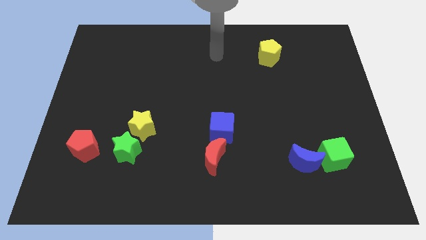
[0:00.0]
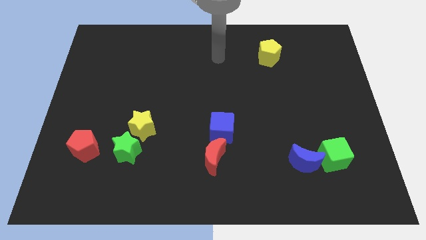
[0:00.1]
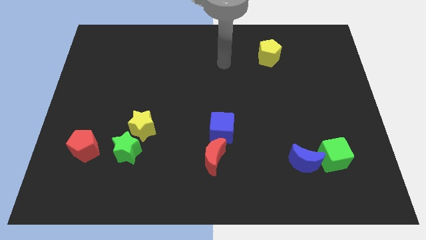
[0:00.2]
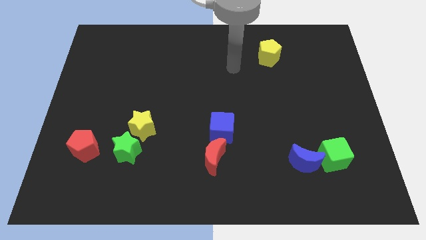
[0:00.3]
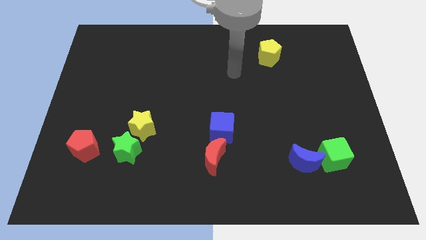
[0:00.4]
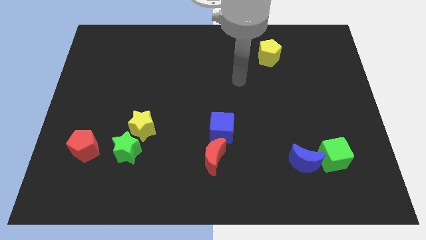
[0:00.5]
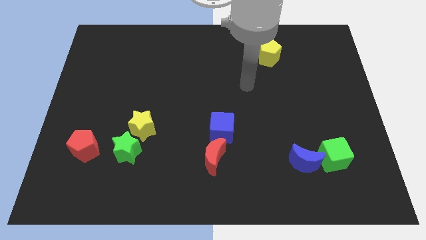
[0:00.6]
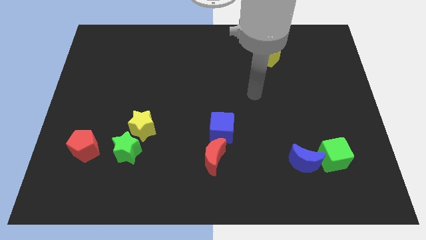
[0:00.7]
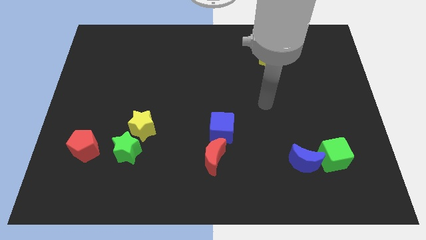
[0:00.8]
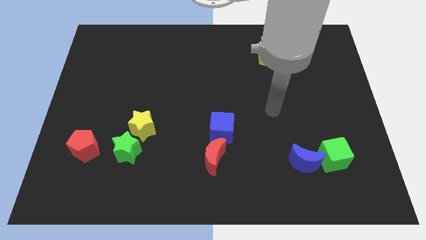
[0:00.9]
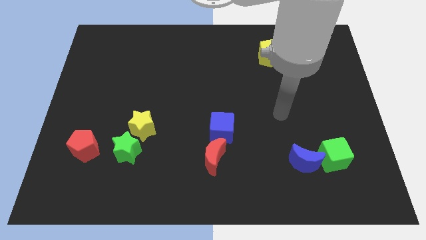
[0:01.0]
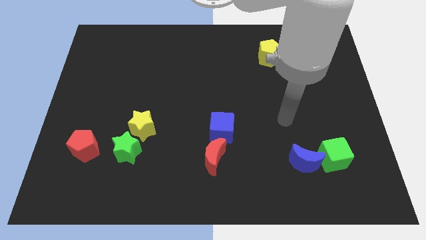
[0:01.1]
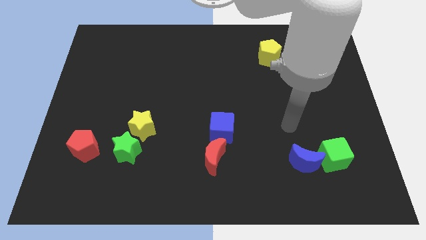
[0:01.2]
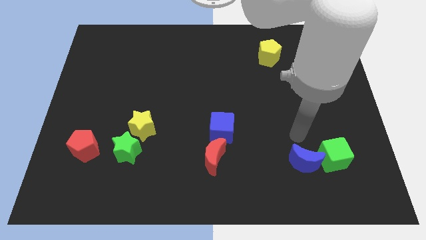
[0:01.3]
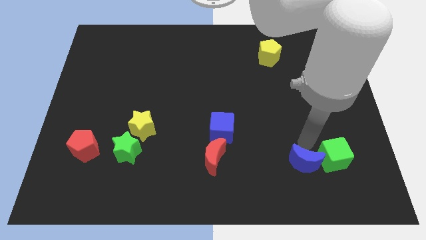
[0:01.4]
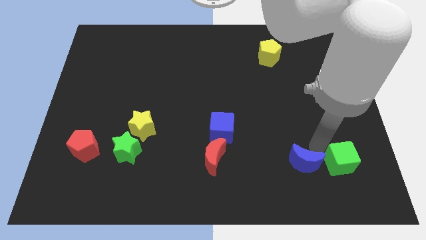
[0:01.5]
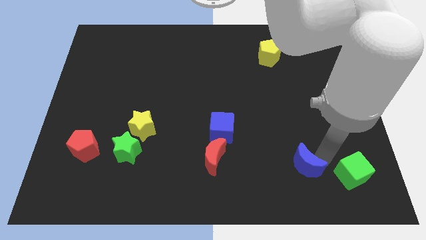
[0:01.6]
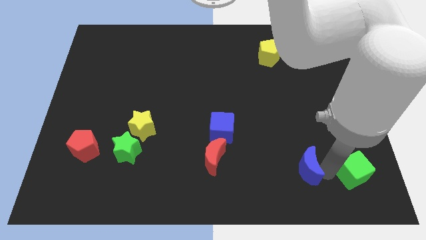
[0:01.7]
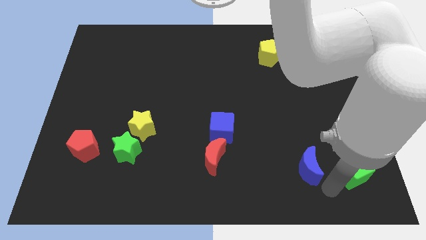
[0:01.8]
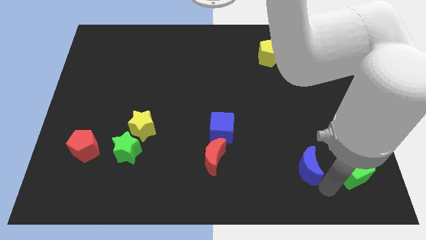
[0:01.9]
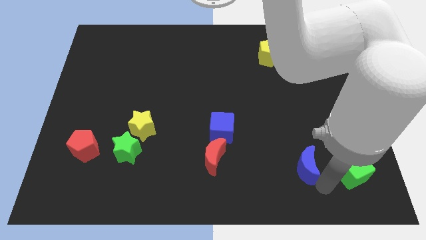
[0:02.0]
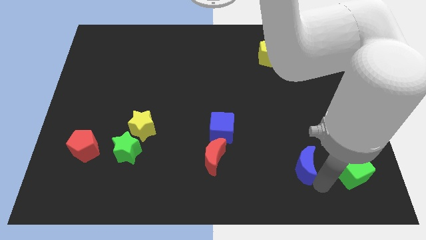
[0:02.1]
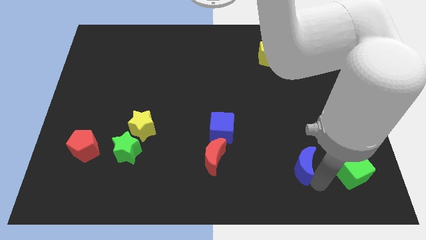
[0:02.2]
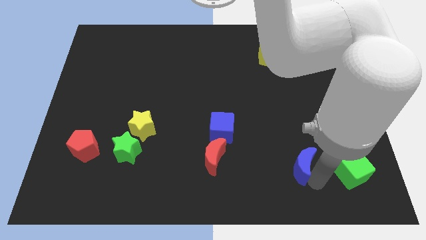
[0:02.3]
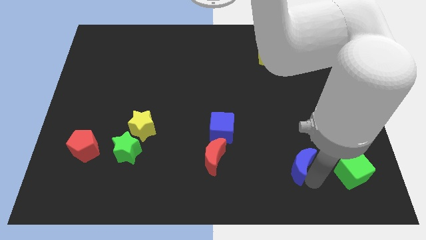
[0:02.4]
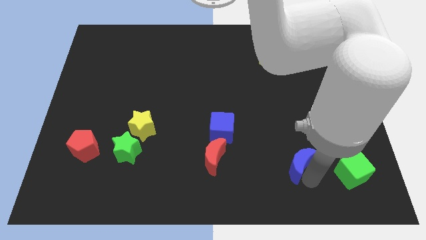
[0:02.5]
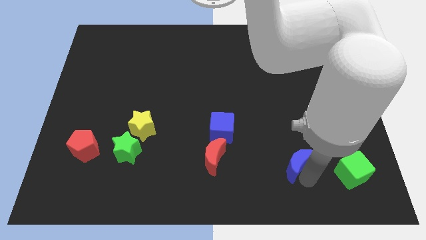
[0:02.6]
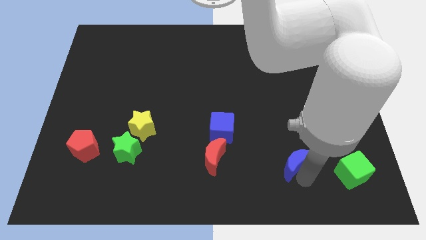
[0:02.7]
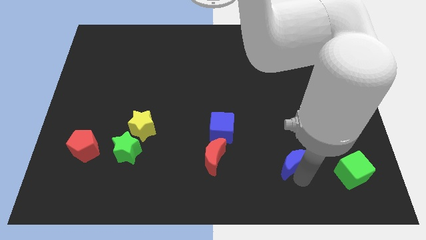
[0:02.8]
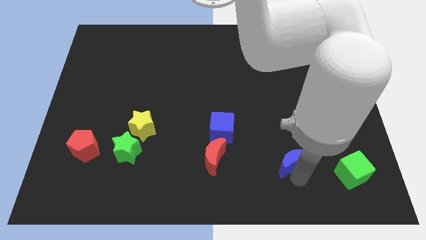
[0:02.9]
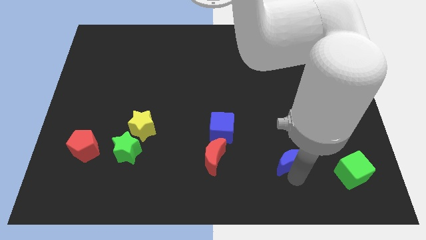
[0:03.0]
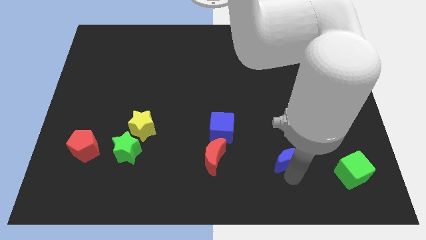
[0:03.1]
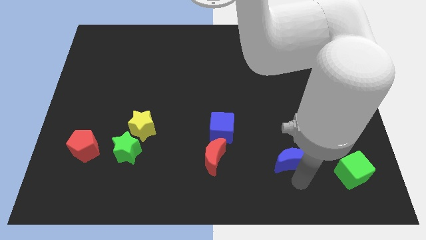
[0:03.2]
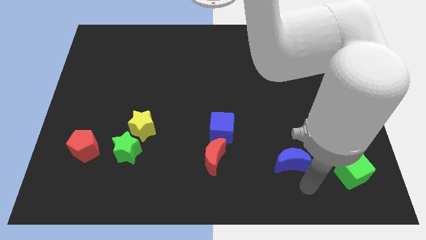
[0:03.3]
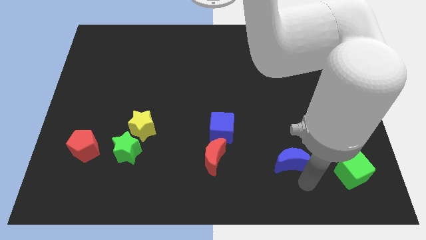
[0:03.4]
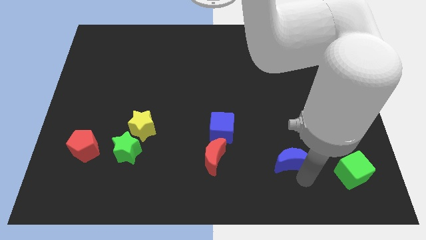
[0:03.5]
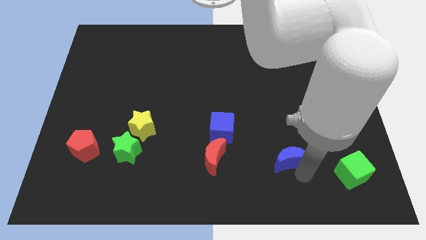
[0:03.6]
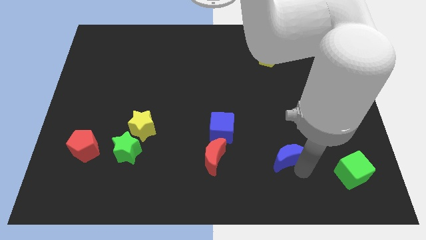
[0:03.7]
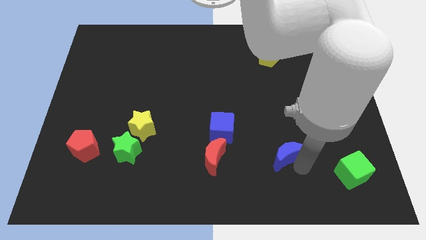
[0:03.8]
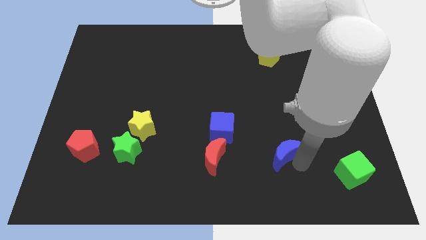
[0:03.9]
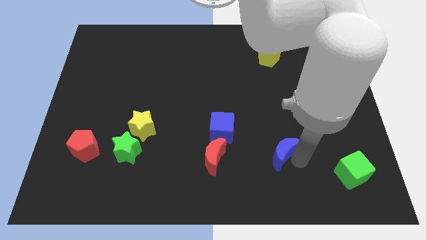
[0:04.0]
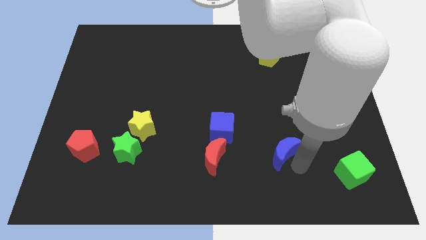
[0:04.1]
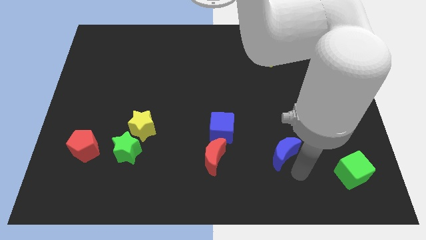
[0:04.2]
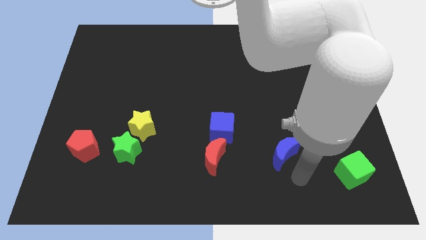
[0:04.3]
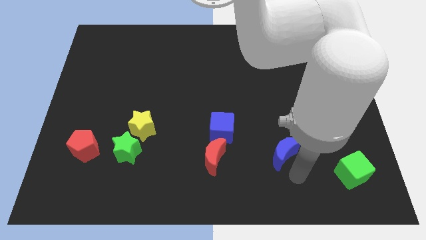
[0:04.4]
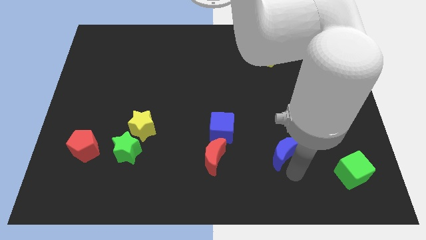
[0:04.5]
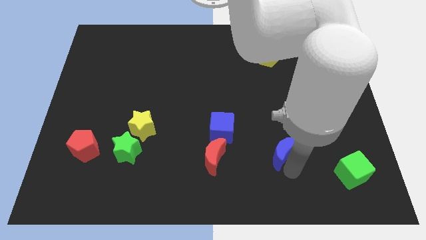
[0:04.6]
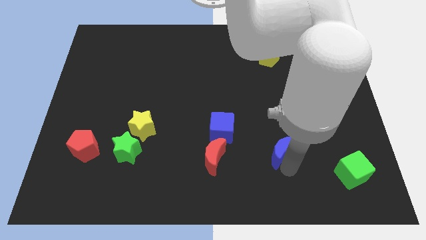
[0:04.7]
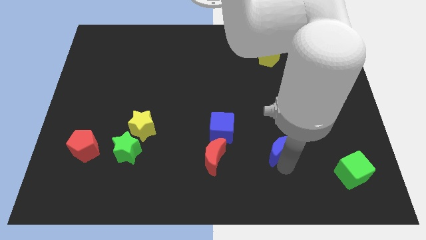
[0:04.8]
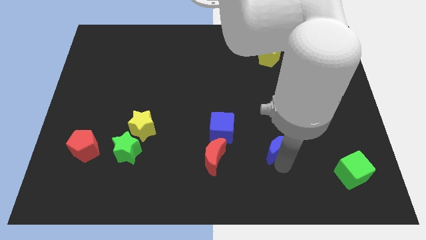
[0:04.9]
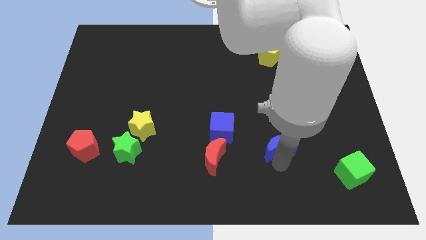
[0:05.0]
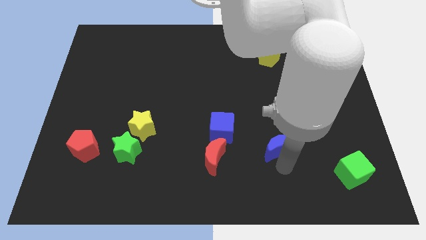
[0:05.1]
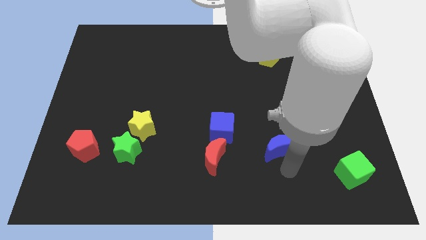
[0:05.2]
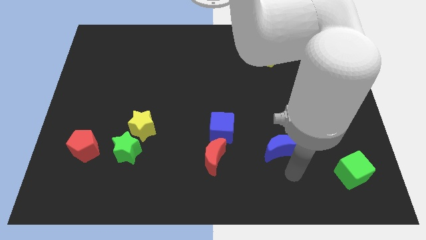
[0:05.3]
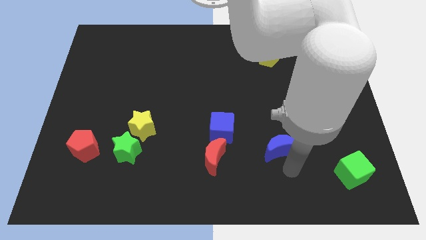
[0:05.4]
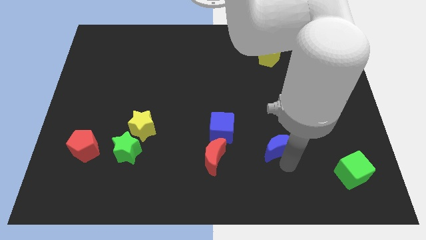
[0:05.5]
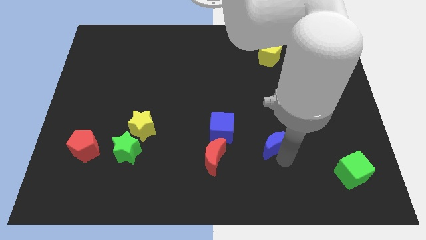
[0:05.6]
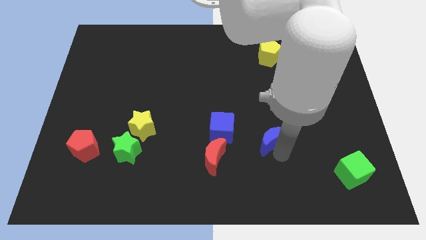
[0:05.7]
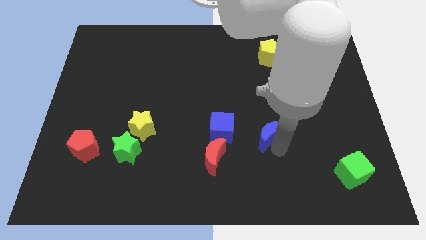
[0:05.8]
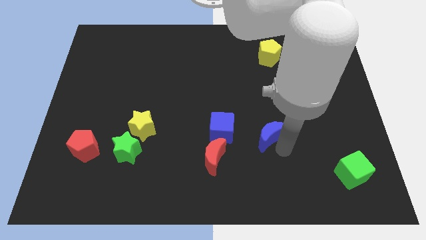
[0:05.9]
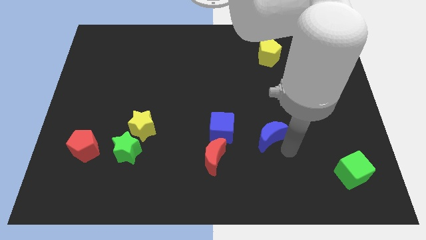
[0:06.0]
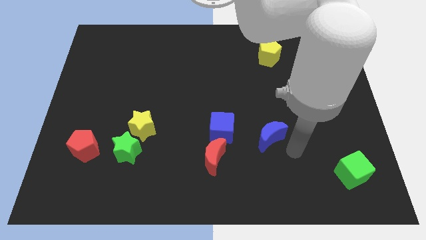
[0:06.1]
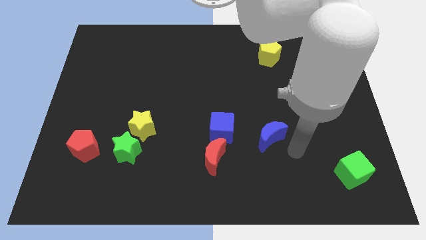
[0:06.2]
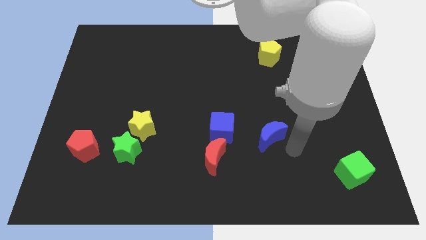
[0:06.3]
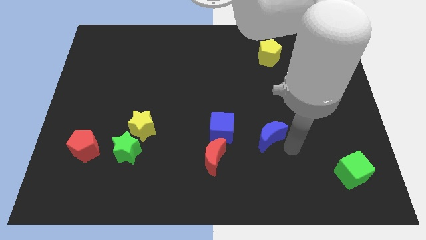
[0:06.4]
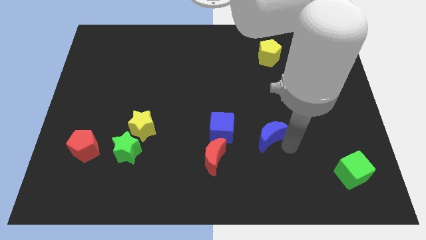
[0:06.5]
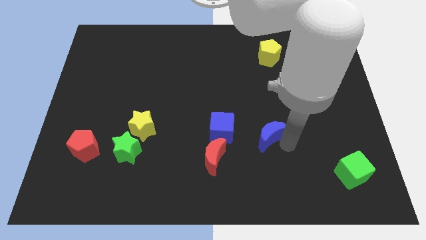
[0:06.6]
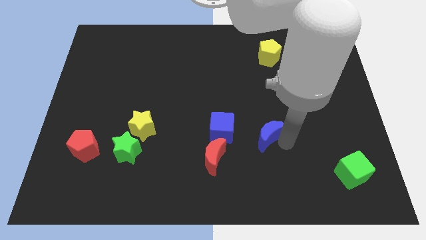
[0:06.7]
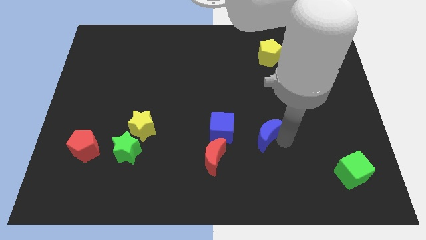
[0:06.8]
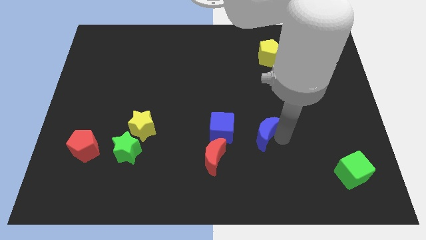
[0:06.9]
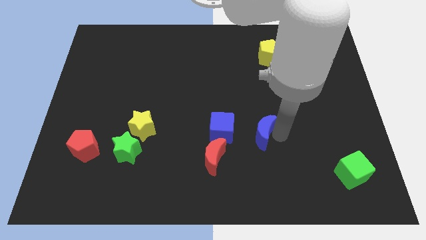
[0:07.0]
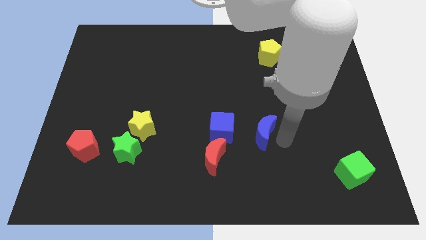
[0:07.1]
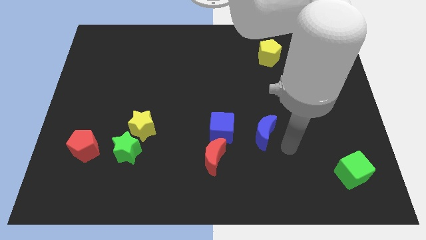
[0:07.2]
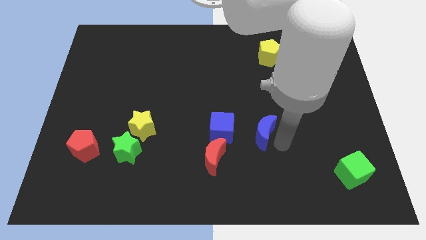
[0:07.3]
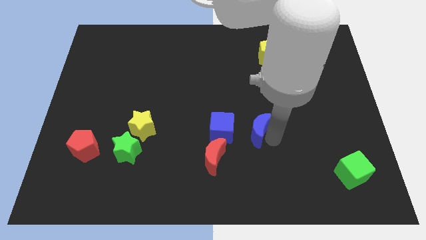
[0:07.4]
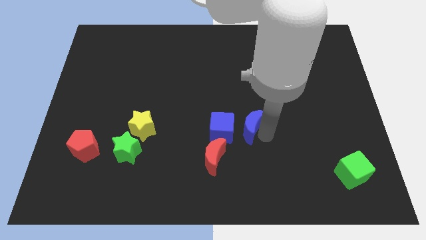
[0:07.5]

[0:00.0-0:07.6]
move the blue moon to the middle
